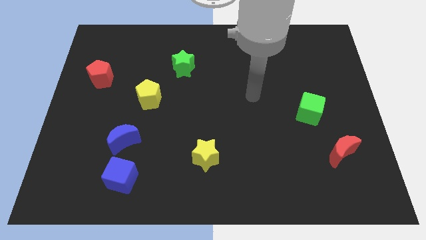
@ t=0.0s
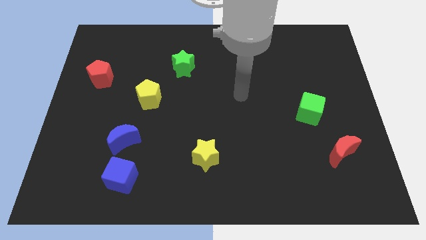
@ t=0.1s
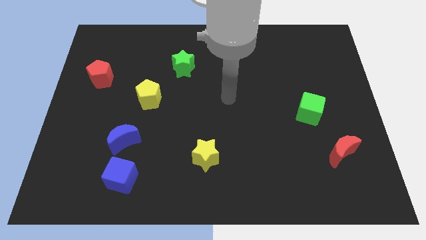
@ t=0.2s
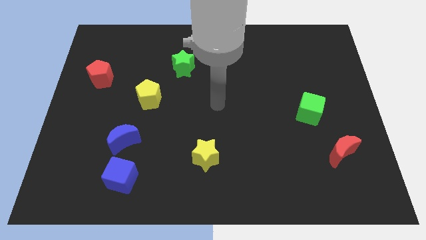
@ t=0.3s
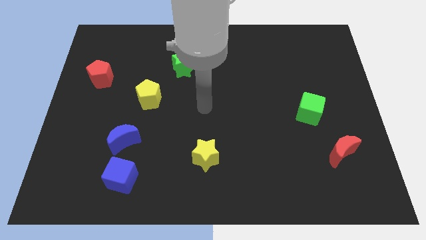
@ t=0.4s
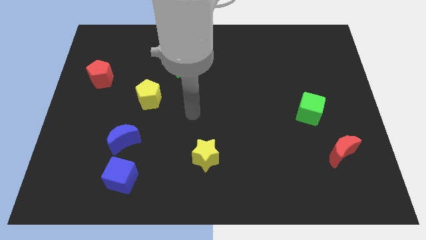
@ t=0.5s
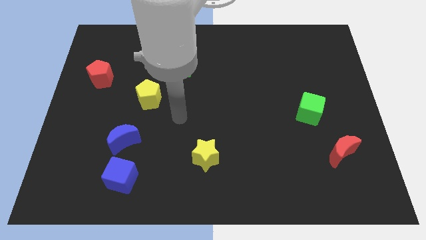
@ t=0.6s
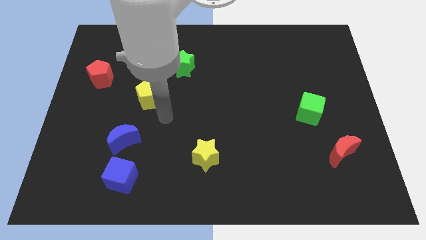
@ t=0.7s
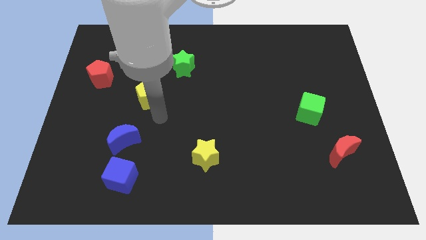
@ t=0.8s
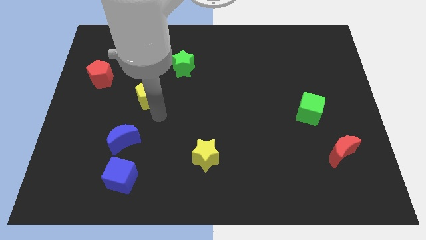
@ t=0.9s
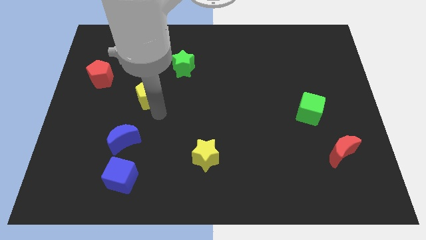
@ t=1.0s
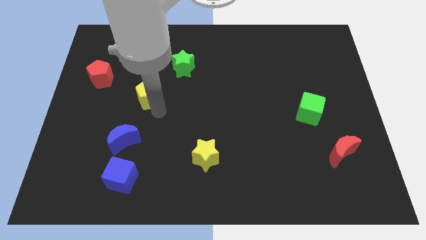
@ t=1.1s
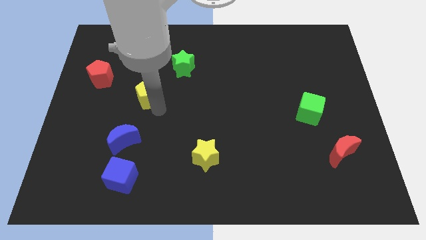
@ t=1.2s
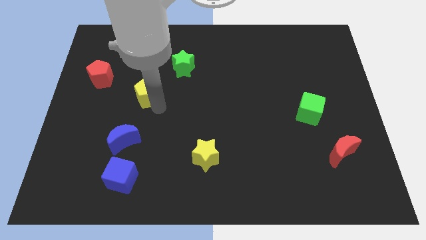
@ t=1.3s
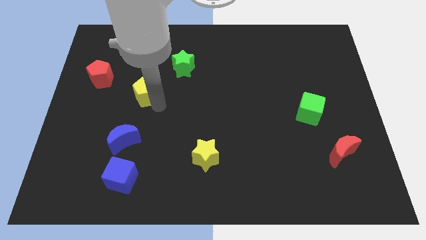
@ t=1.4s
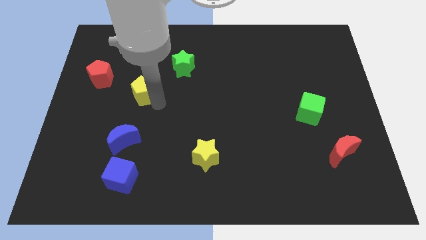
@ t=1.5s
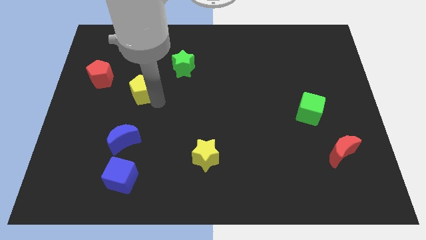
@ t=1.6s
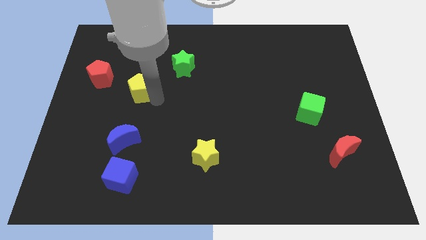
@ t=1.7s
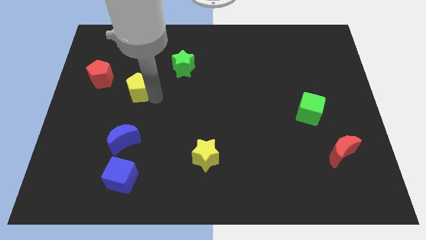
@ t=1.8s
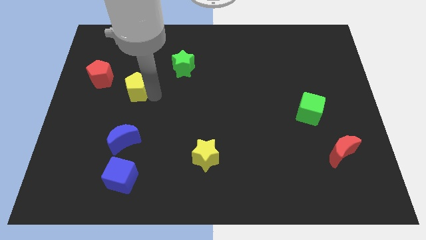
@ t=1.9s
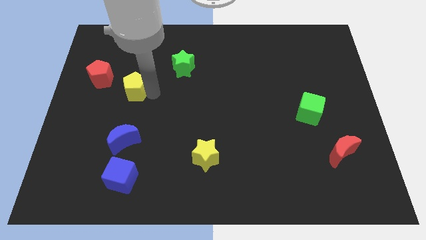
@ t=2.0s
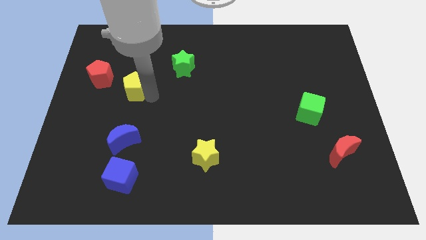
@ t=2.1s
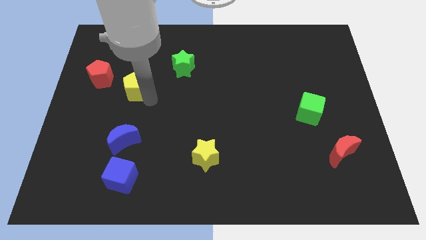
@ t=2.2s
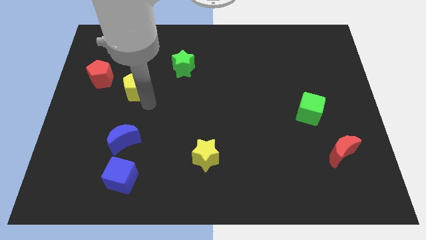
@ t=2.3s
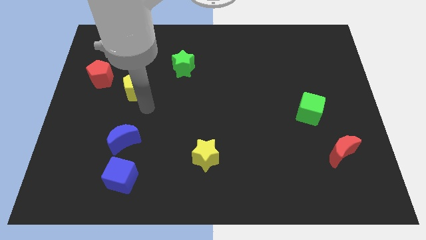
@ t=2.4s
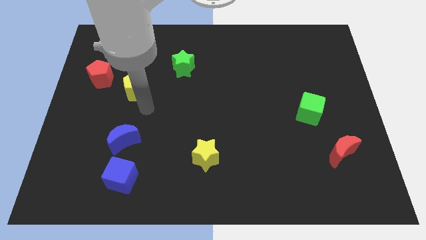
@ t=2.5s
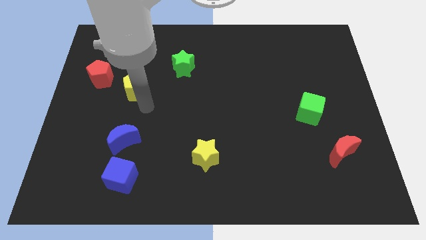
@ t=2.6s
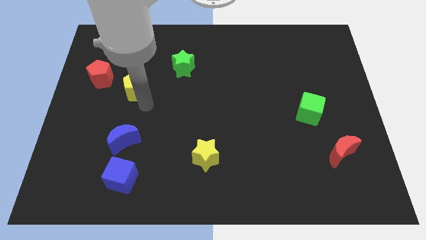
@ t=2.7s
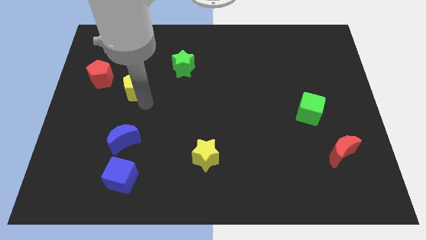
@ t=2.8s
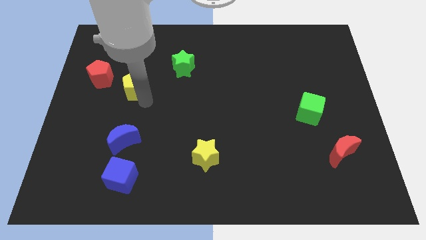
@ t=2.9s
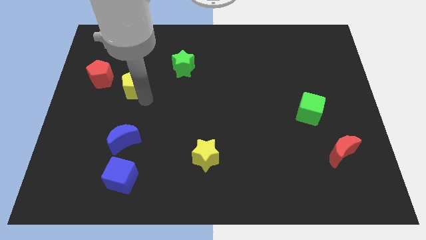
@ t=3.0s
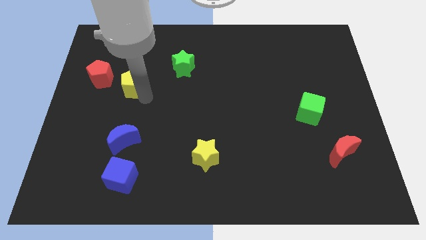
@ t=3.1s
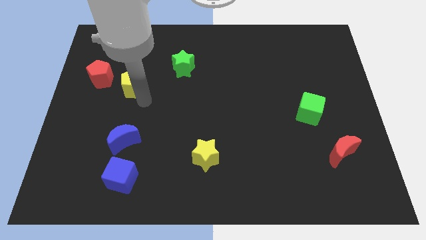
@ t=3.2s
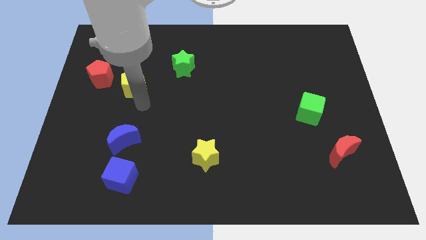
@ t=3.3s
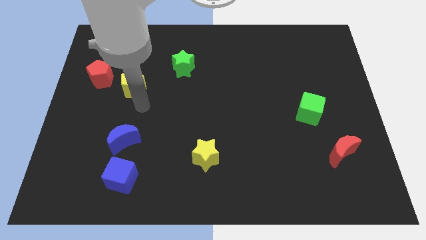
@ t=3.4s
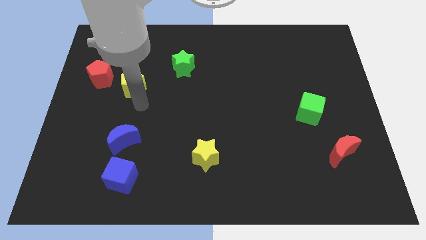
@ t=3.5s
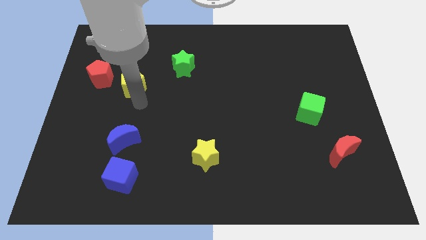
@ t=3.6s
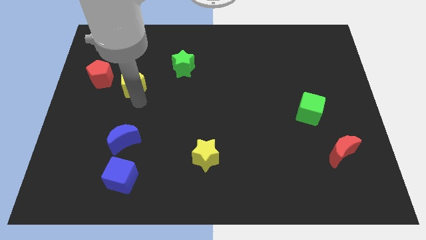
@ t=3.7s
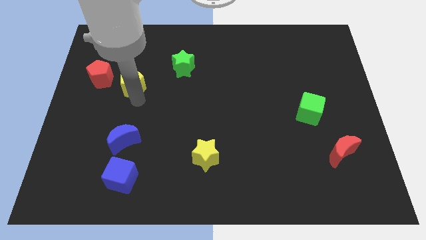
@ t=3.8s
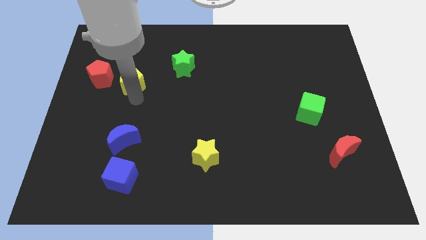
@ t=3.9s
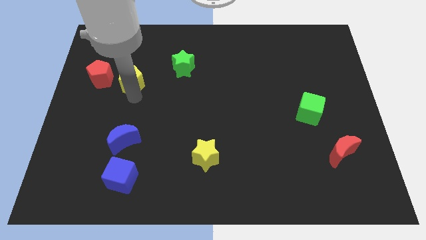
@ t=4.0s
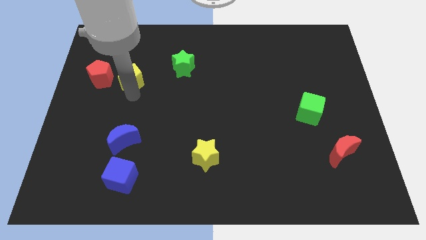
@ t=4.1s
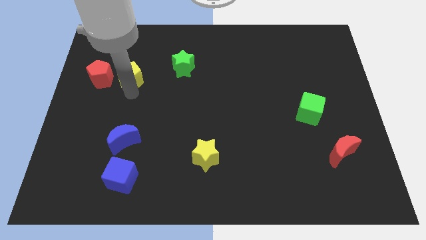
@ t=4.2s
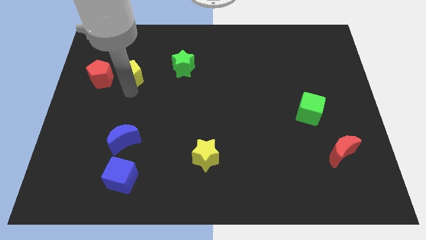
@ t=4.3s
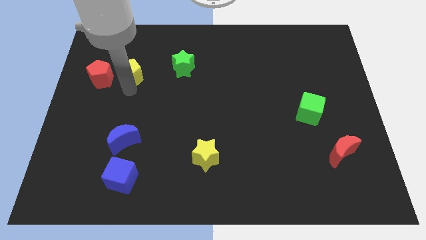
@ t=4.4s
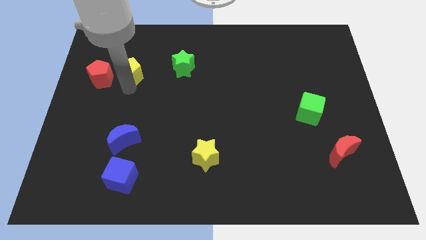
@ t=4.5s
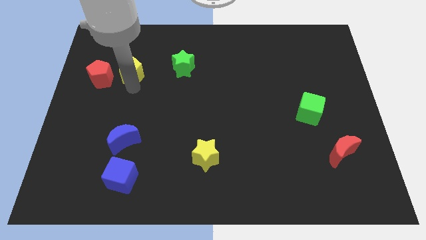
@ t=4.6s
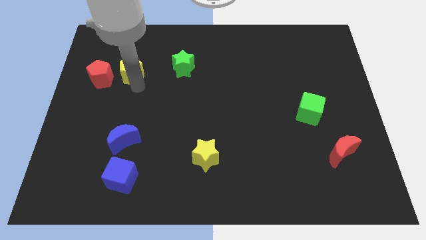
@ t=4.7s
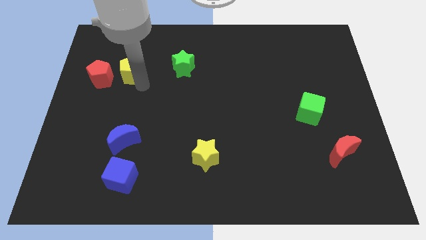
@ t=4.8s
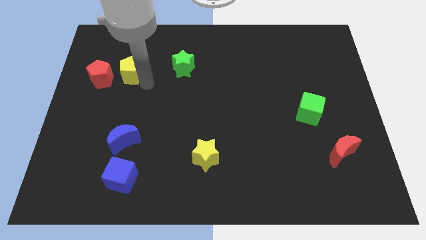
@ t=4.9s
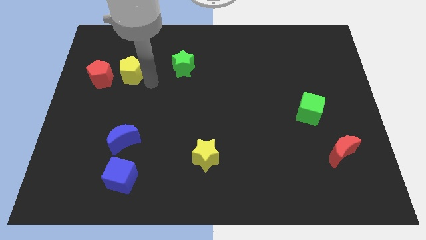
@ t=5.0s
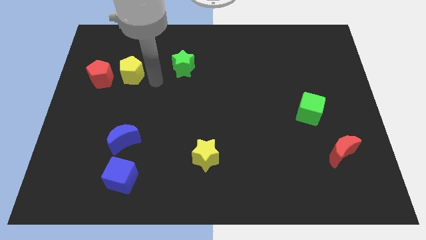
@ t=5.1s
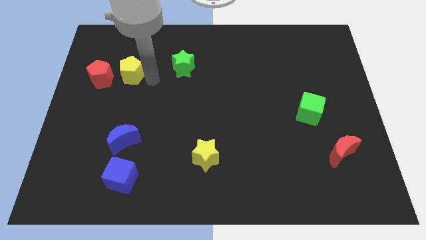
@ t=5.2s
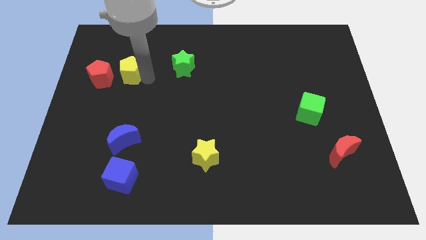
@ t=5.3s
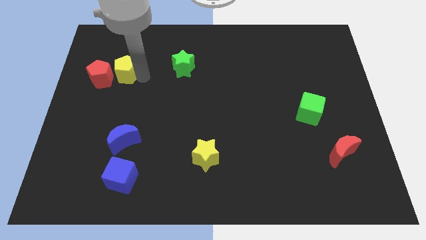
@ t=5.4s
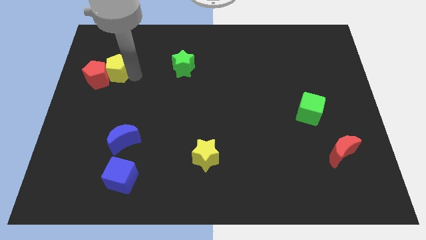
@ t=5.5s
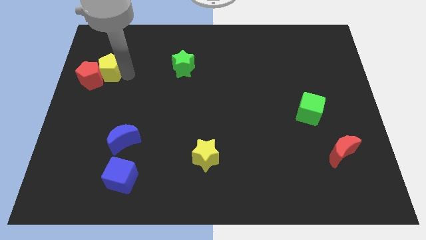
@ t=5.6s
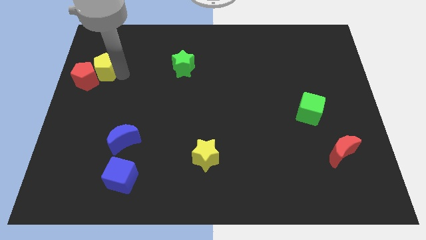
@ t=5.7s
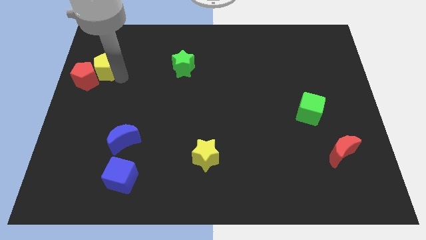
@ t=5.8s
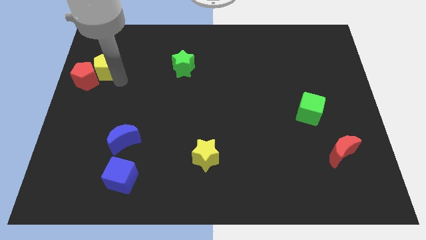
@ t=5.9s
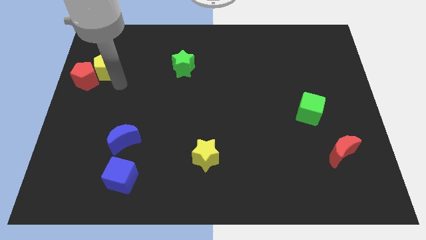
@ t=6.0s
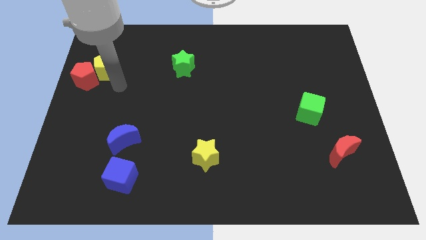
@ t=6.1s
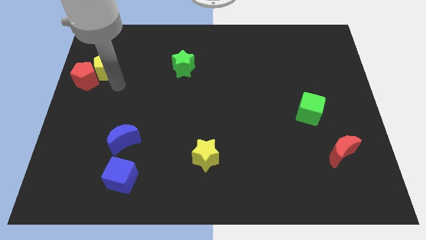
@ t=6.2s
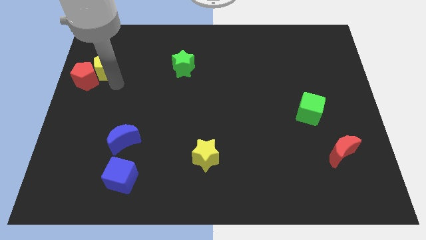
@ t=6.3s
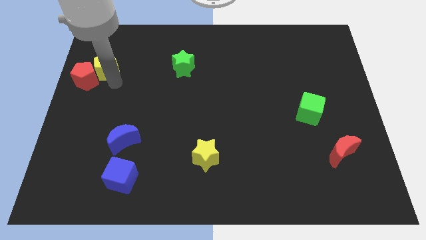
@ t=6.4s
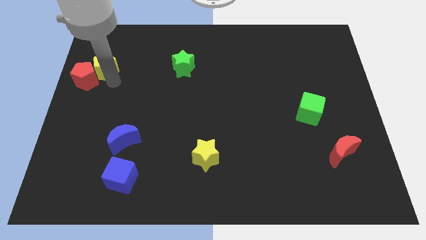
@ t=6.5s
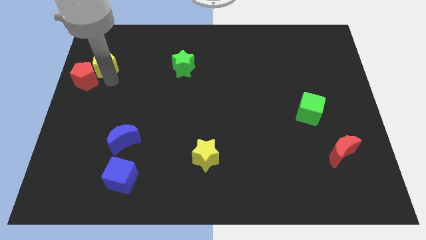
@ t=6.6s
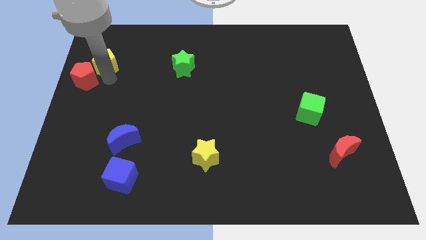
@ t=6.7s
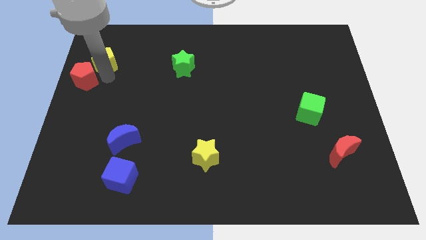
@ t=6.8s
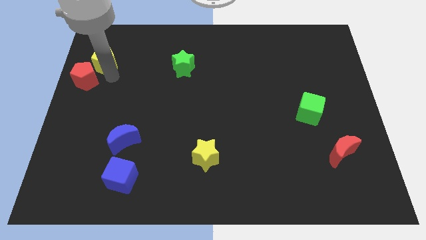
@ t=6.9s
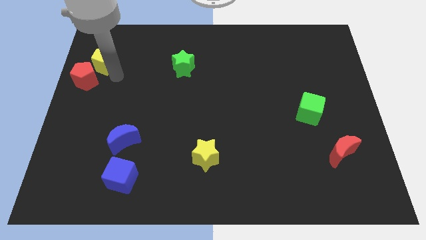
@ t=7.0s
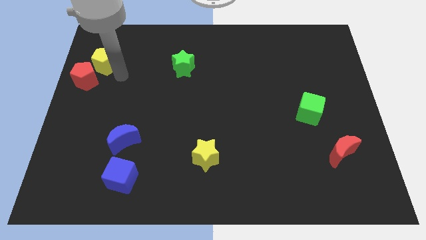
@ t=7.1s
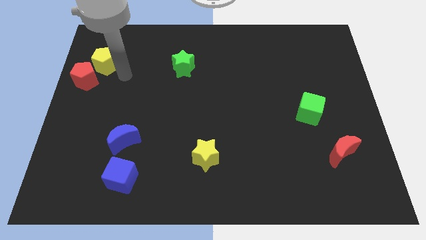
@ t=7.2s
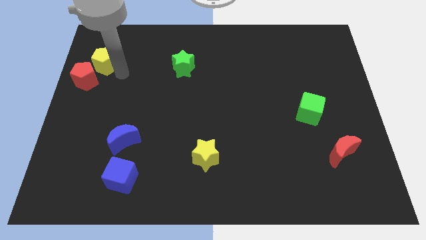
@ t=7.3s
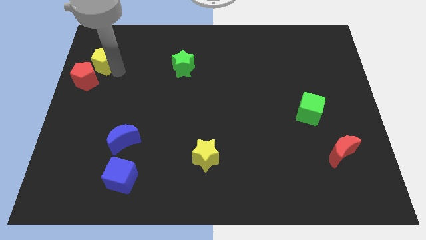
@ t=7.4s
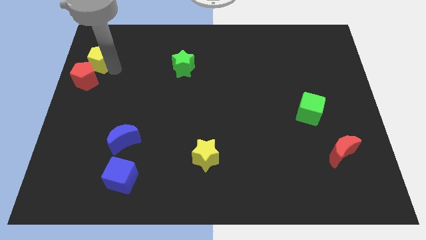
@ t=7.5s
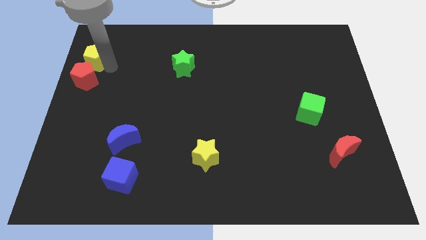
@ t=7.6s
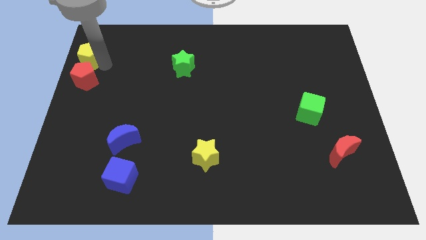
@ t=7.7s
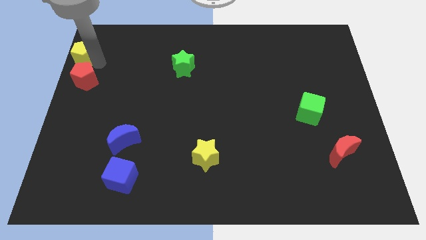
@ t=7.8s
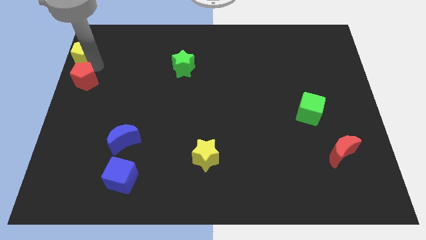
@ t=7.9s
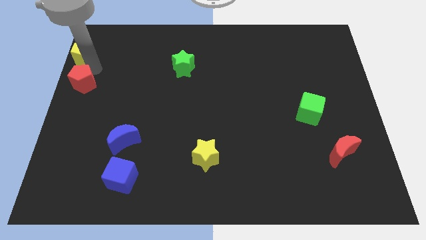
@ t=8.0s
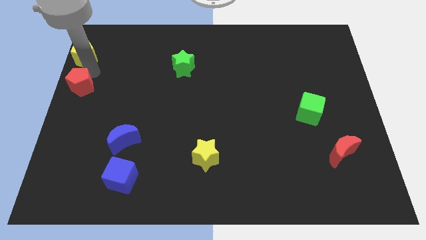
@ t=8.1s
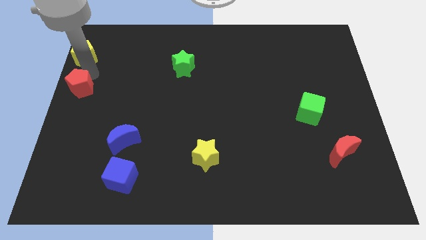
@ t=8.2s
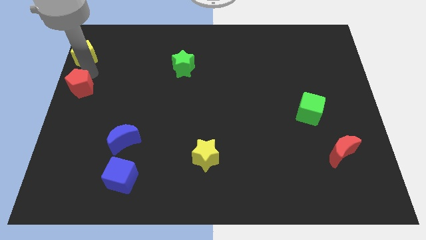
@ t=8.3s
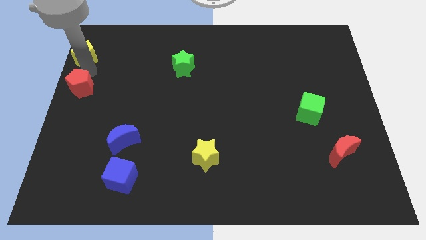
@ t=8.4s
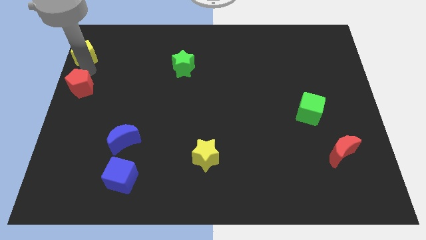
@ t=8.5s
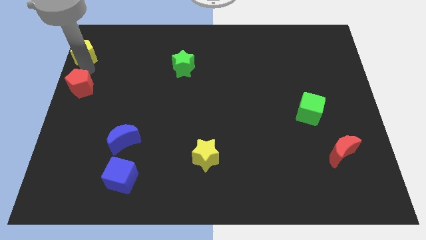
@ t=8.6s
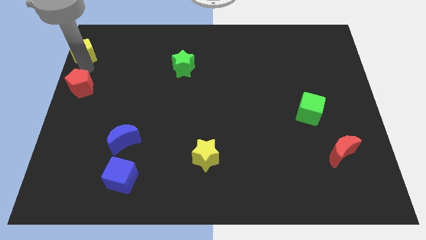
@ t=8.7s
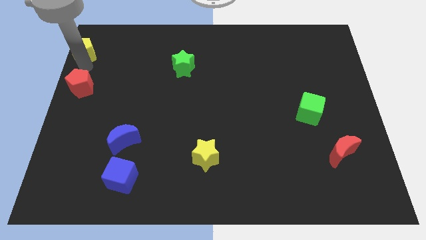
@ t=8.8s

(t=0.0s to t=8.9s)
slide the yellow pentagon to the top left
